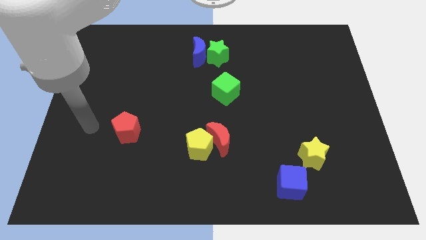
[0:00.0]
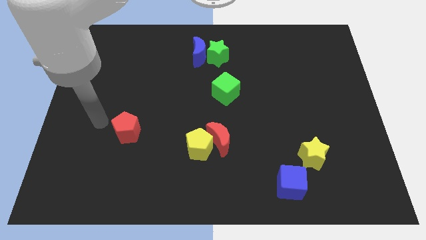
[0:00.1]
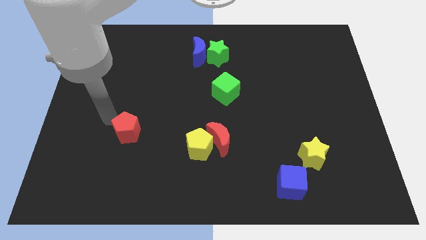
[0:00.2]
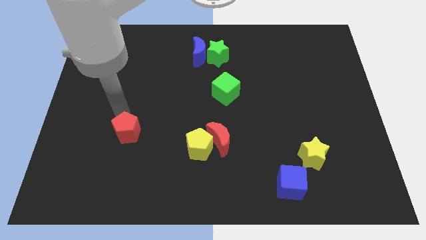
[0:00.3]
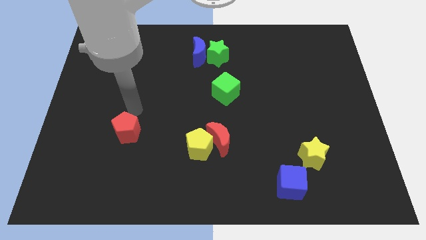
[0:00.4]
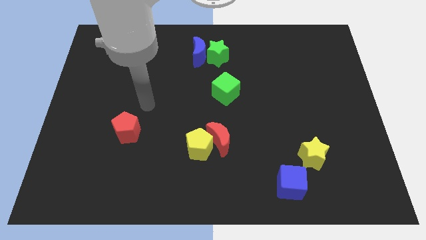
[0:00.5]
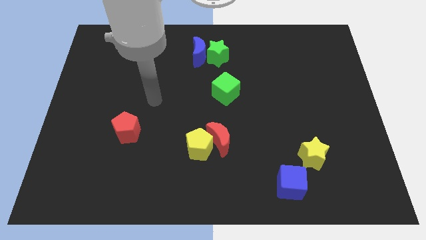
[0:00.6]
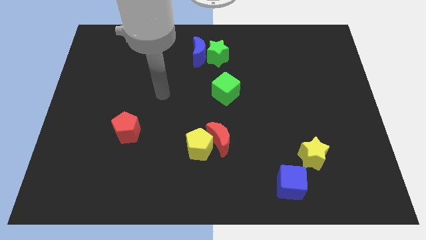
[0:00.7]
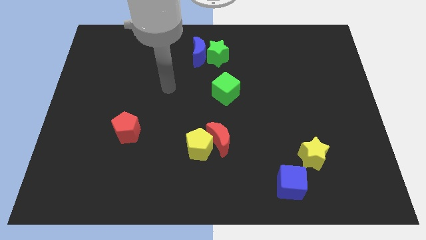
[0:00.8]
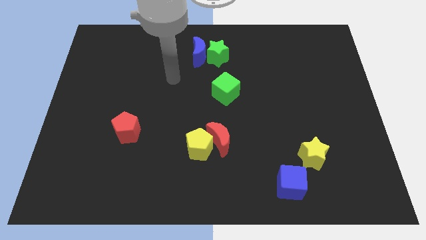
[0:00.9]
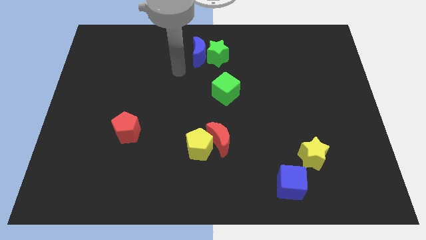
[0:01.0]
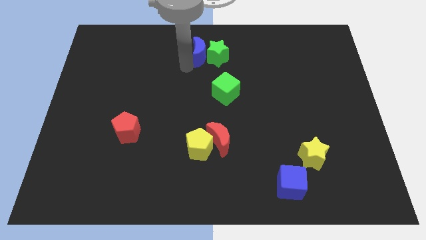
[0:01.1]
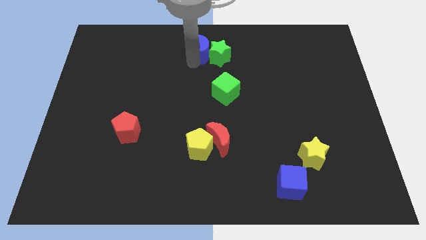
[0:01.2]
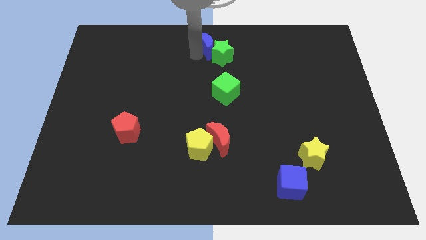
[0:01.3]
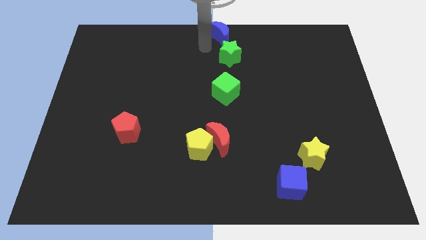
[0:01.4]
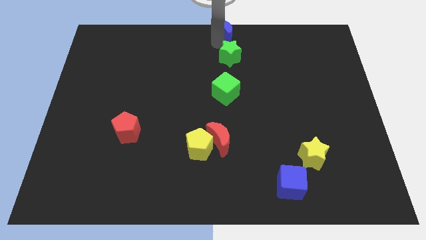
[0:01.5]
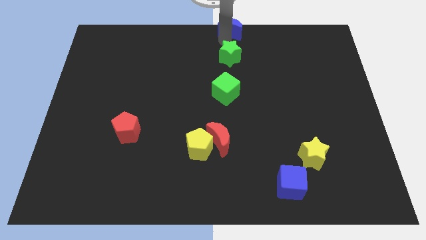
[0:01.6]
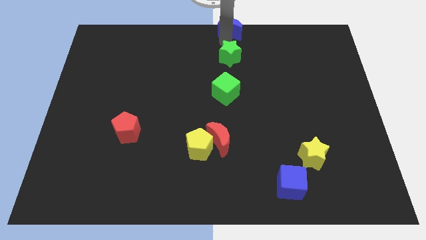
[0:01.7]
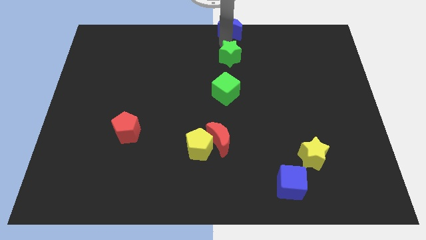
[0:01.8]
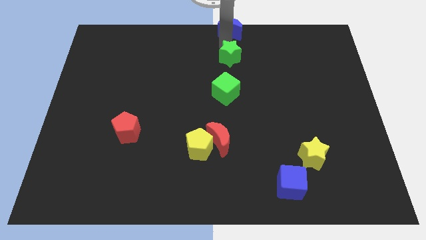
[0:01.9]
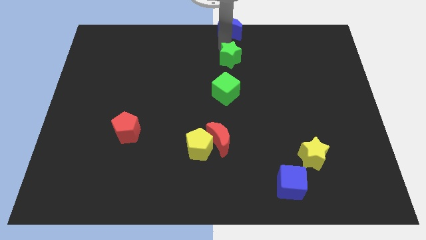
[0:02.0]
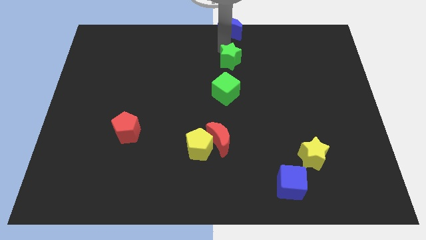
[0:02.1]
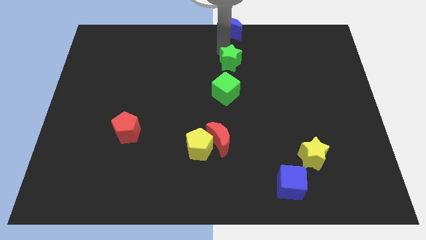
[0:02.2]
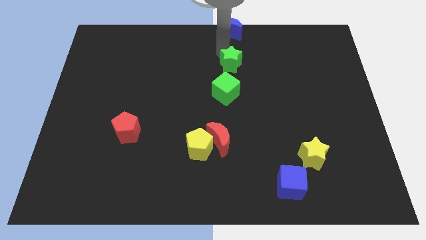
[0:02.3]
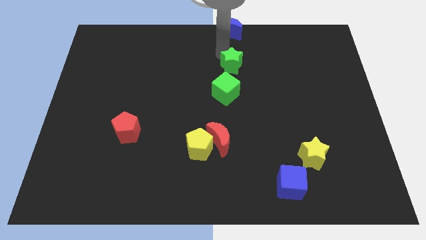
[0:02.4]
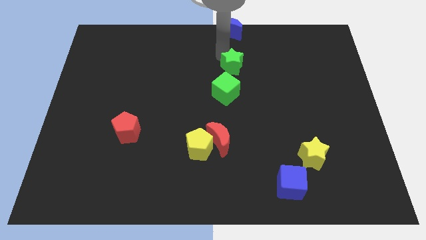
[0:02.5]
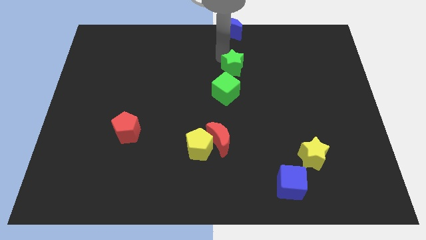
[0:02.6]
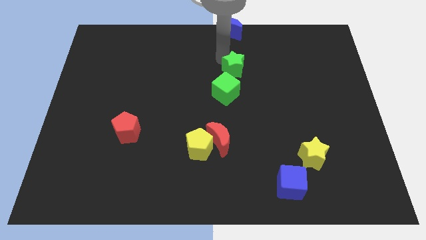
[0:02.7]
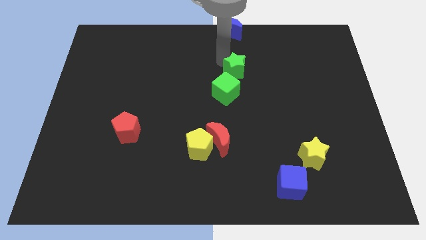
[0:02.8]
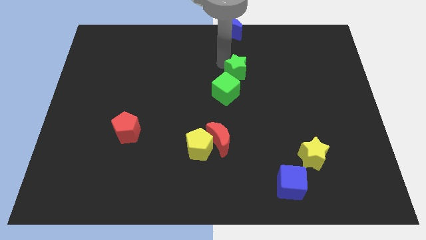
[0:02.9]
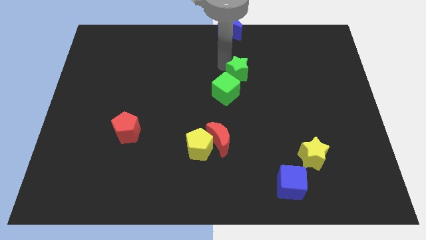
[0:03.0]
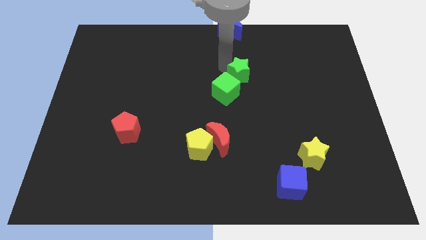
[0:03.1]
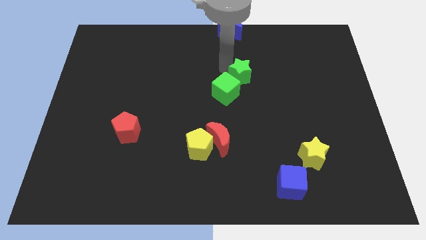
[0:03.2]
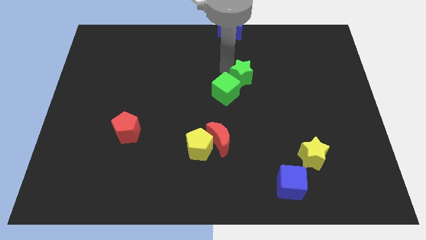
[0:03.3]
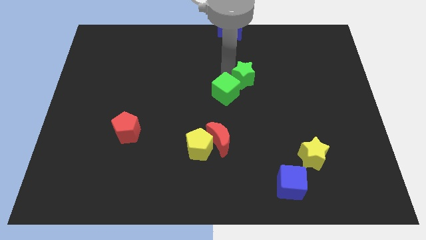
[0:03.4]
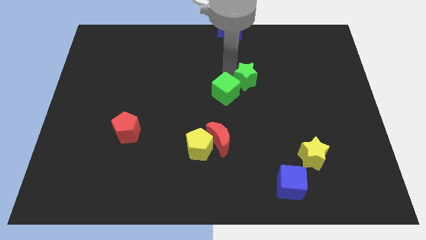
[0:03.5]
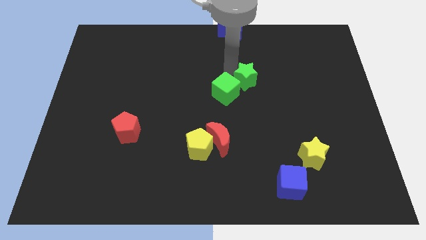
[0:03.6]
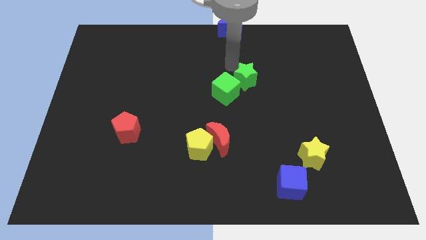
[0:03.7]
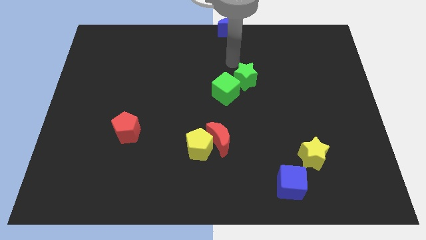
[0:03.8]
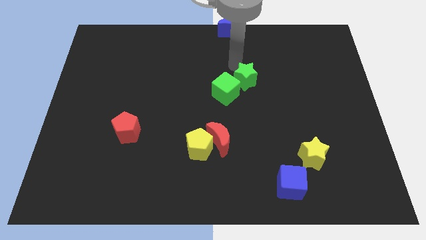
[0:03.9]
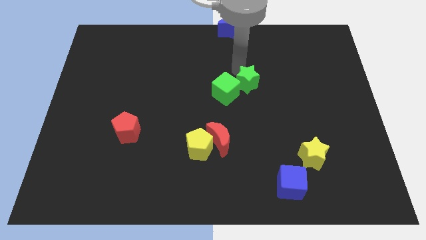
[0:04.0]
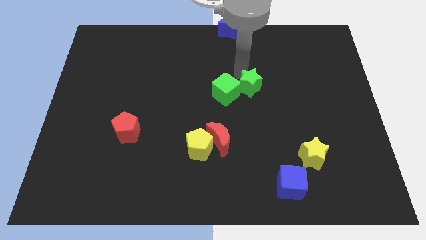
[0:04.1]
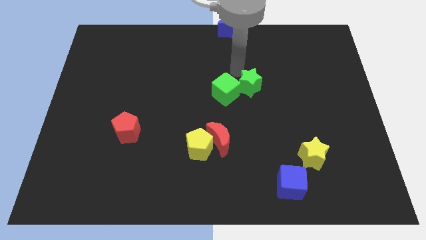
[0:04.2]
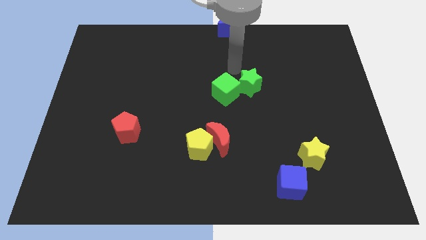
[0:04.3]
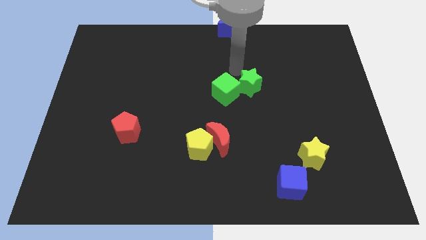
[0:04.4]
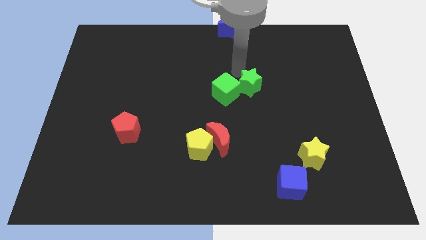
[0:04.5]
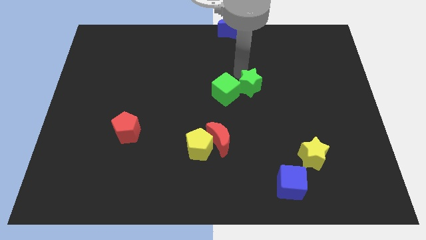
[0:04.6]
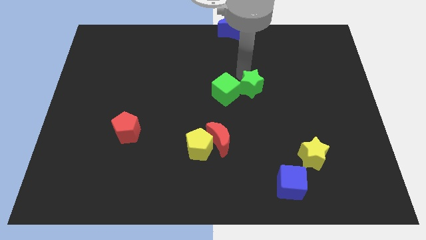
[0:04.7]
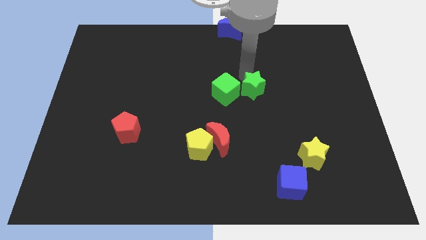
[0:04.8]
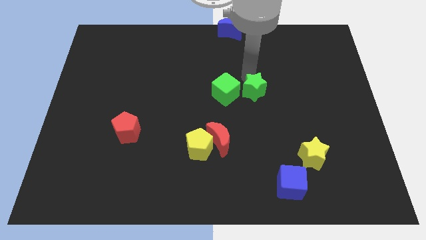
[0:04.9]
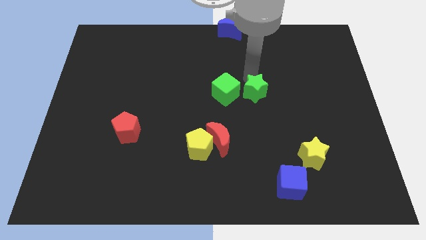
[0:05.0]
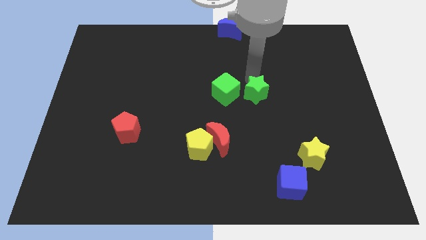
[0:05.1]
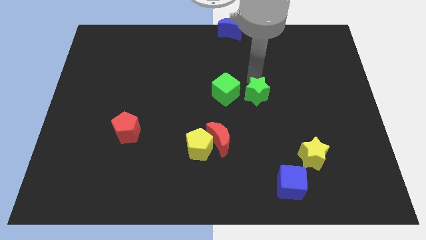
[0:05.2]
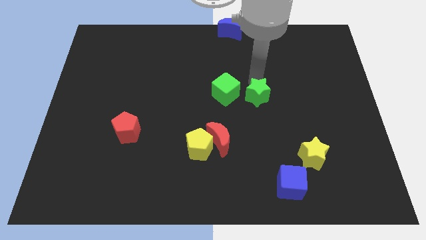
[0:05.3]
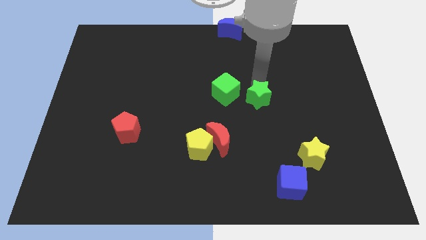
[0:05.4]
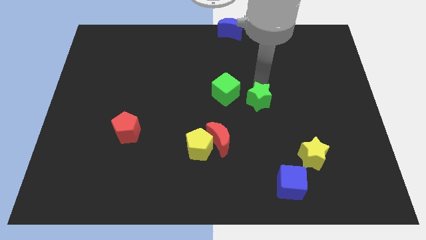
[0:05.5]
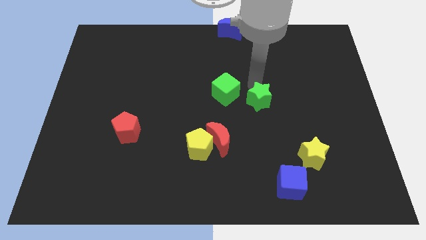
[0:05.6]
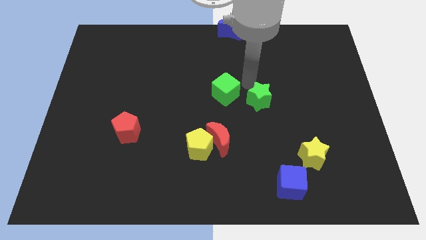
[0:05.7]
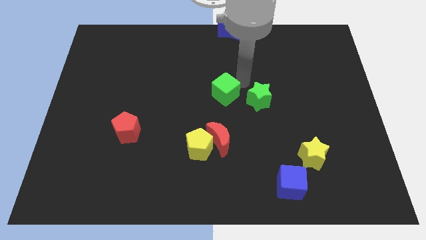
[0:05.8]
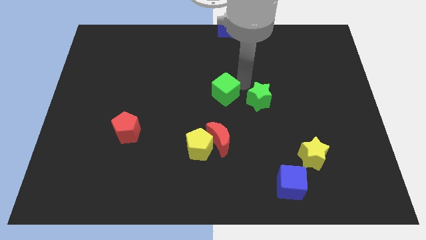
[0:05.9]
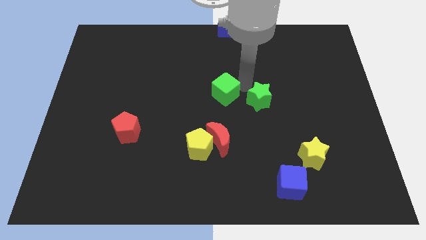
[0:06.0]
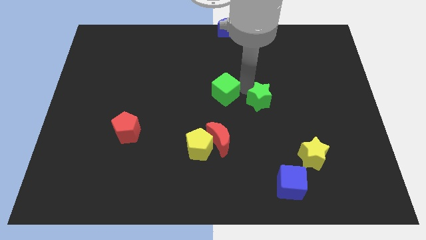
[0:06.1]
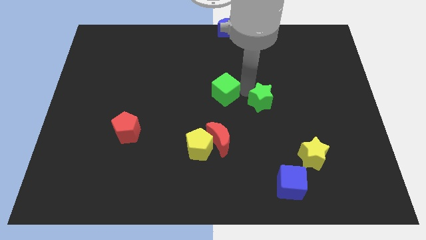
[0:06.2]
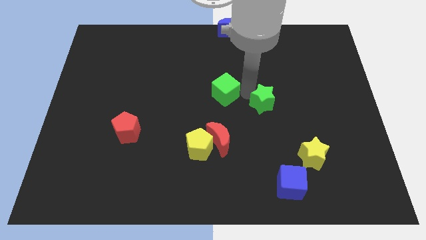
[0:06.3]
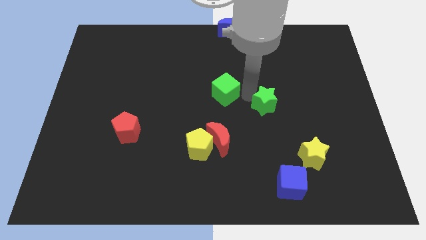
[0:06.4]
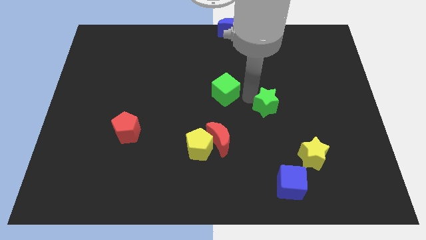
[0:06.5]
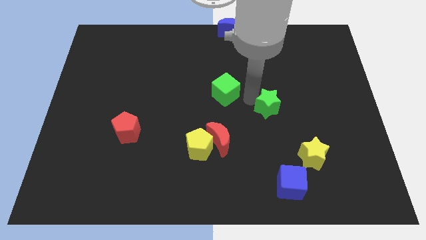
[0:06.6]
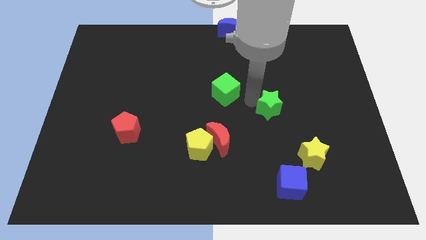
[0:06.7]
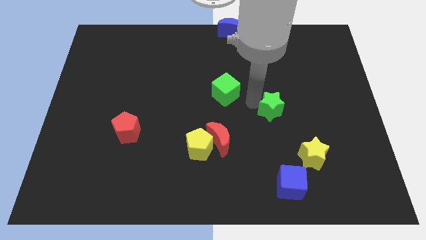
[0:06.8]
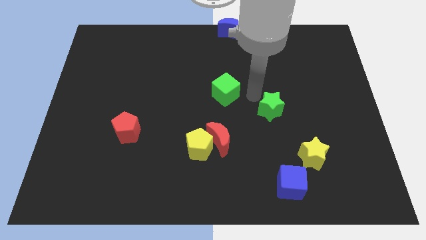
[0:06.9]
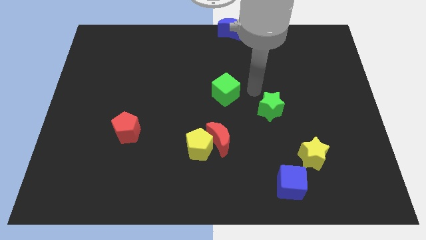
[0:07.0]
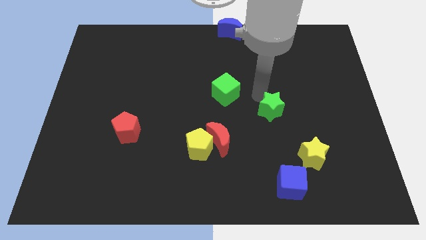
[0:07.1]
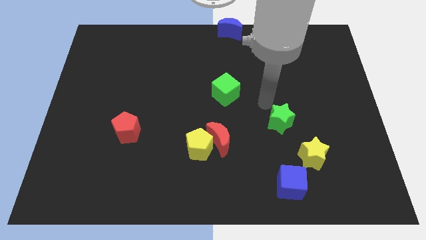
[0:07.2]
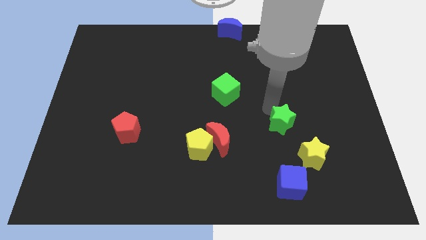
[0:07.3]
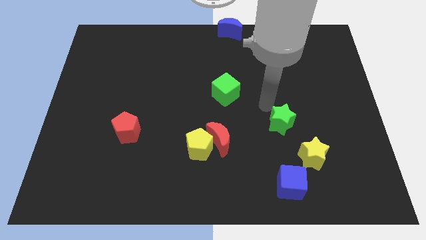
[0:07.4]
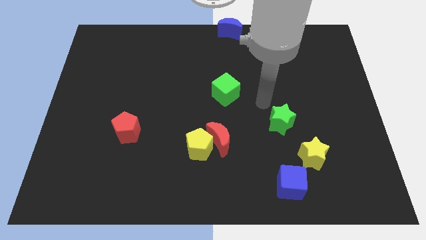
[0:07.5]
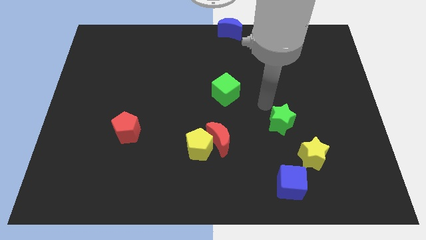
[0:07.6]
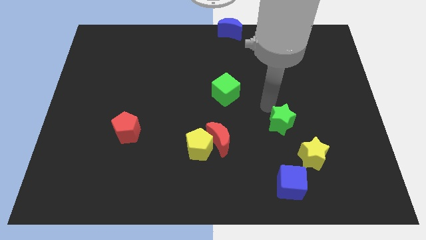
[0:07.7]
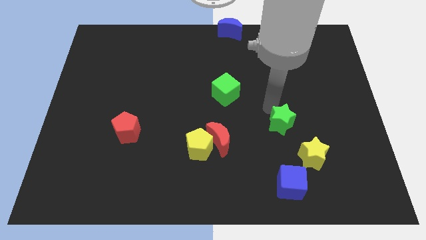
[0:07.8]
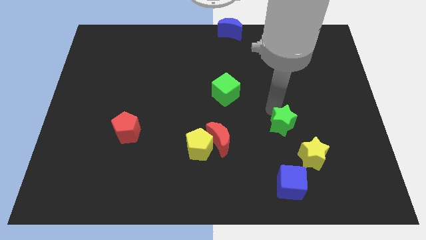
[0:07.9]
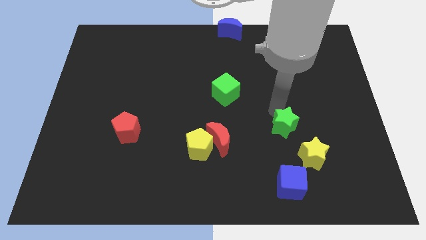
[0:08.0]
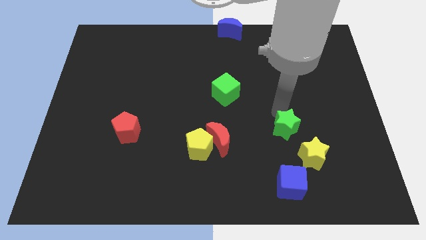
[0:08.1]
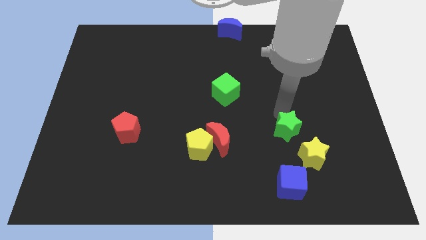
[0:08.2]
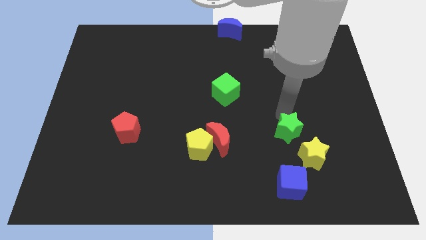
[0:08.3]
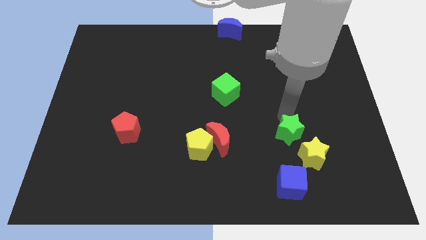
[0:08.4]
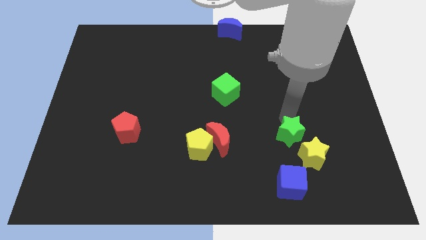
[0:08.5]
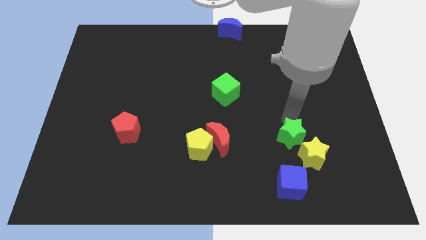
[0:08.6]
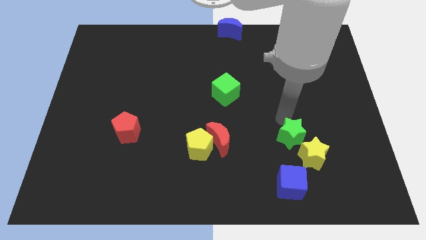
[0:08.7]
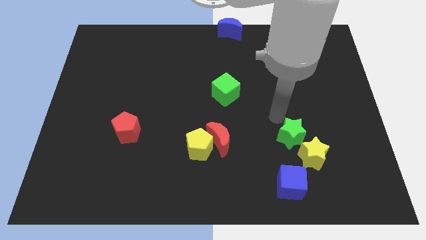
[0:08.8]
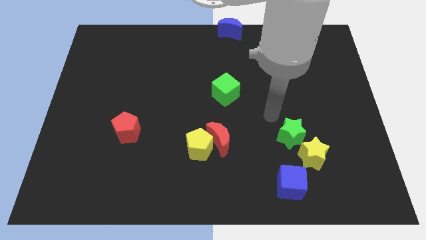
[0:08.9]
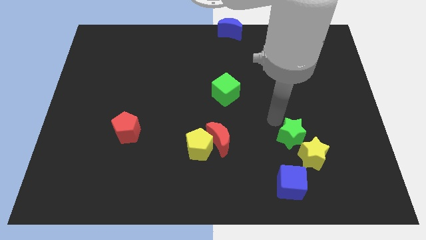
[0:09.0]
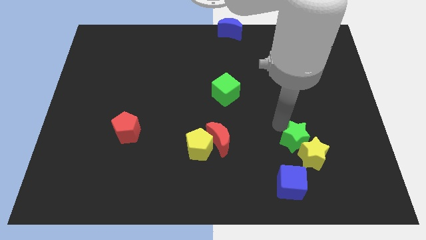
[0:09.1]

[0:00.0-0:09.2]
slide the green star to the yellow star
